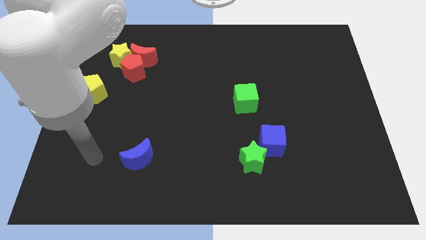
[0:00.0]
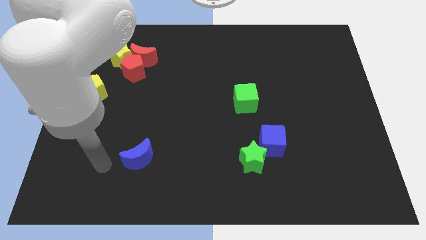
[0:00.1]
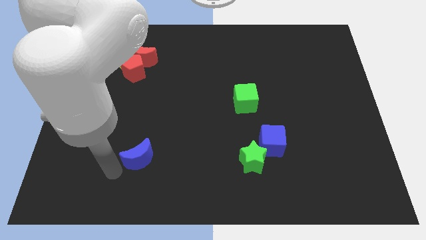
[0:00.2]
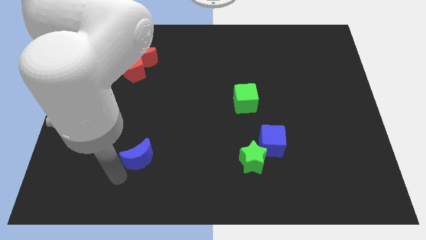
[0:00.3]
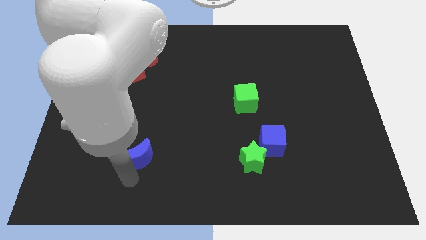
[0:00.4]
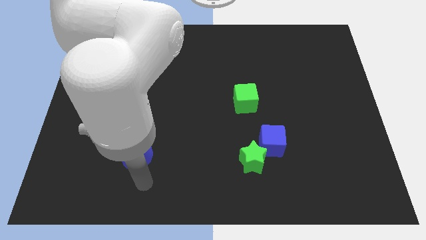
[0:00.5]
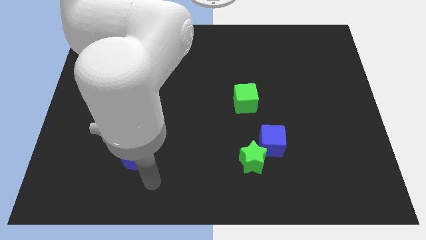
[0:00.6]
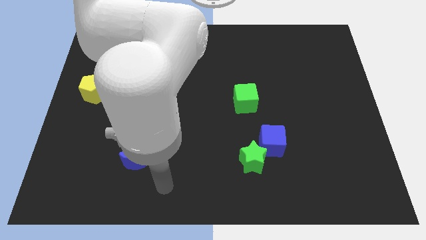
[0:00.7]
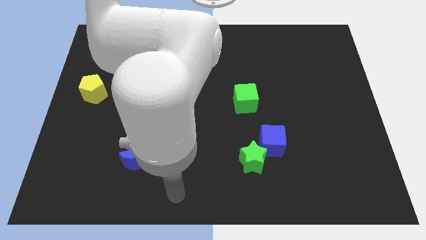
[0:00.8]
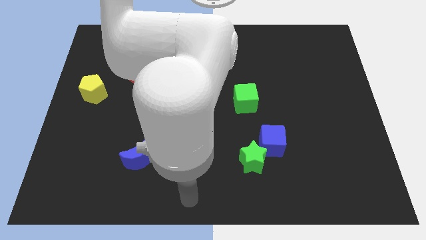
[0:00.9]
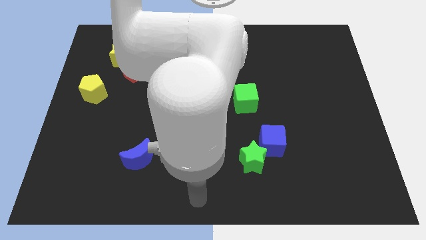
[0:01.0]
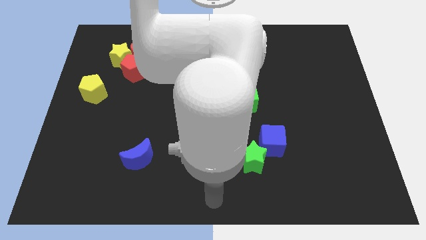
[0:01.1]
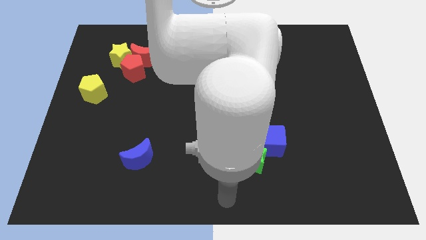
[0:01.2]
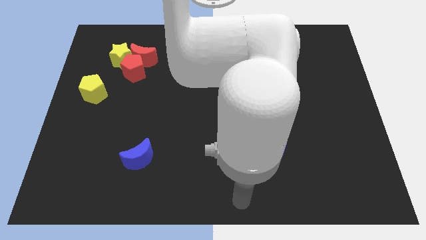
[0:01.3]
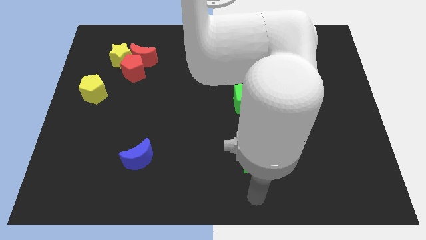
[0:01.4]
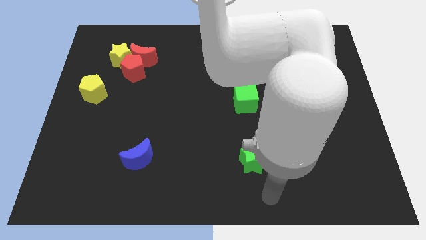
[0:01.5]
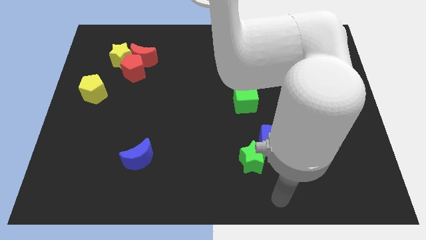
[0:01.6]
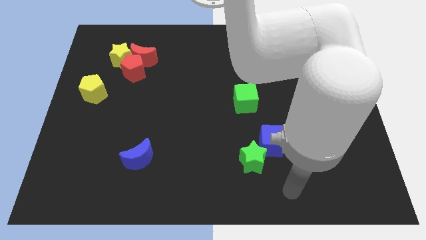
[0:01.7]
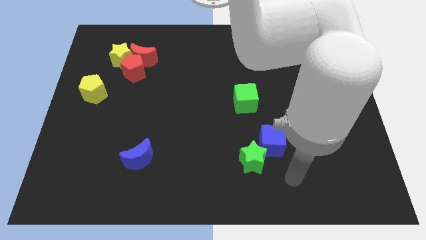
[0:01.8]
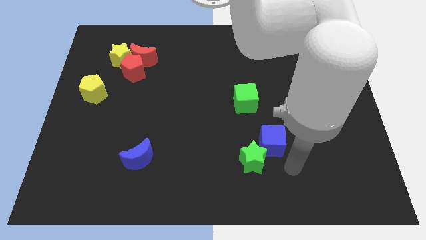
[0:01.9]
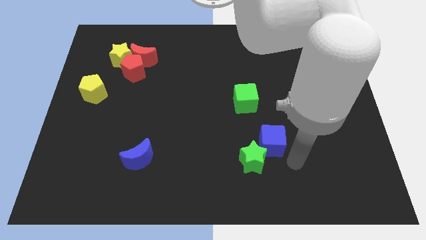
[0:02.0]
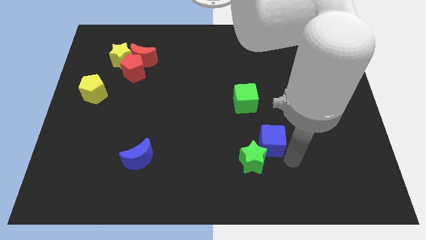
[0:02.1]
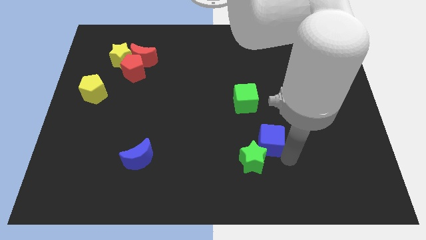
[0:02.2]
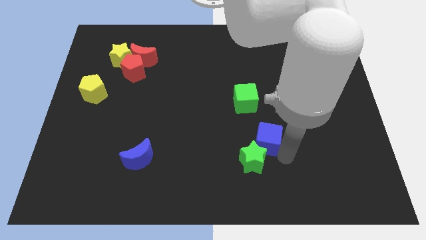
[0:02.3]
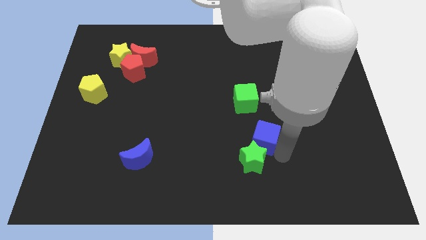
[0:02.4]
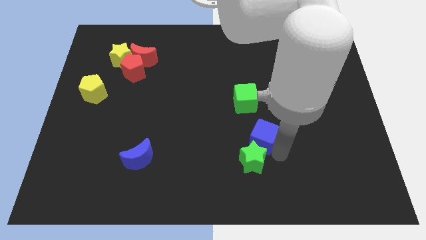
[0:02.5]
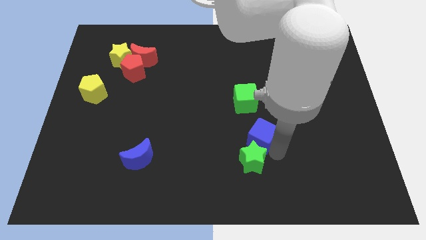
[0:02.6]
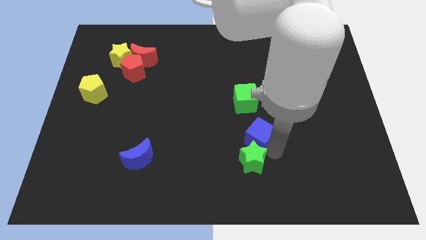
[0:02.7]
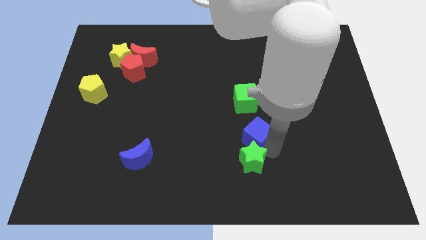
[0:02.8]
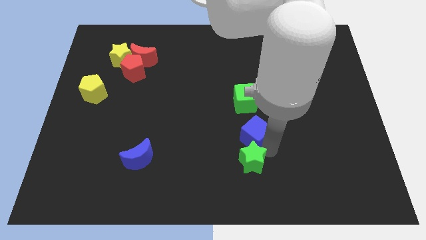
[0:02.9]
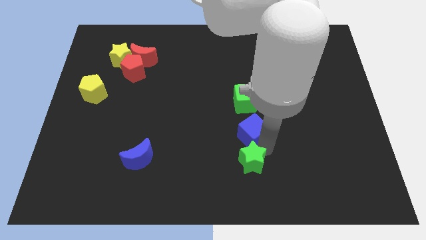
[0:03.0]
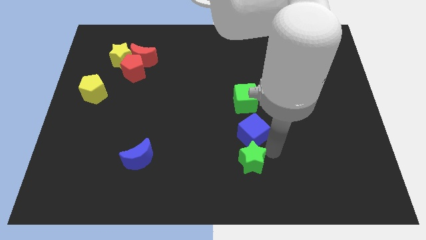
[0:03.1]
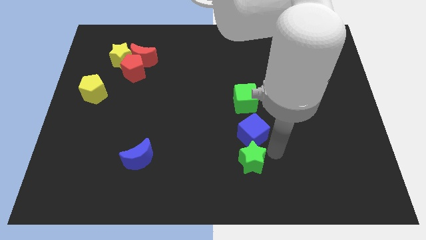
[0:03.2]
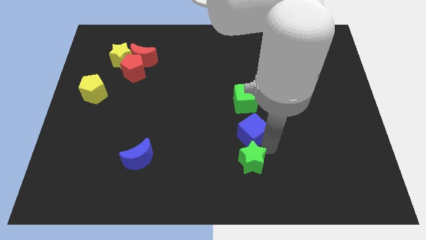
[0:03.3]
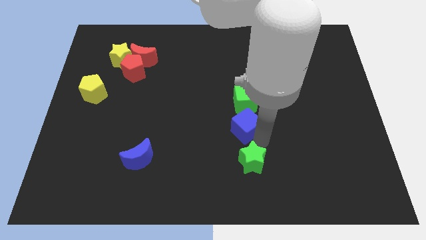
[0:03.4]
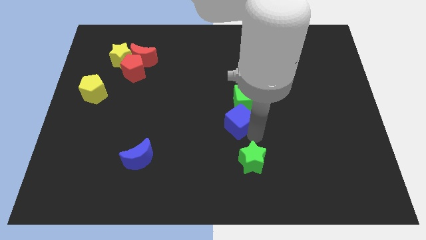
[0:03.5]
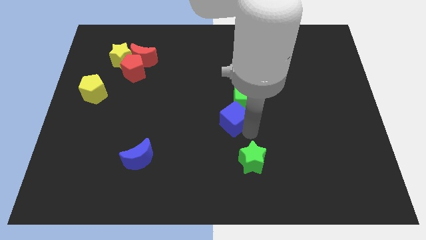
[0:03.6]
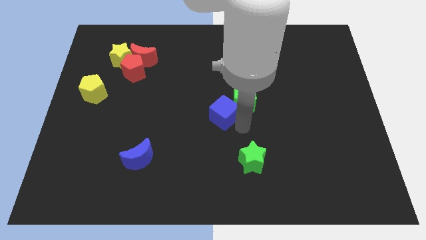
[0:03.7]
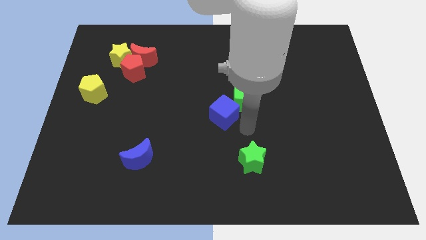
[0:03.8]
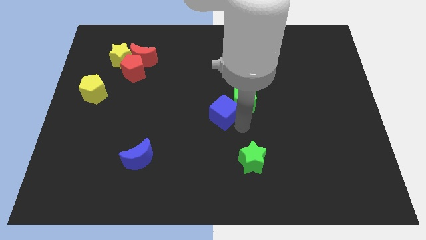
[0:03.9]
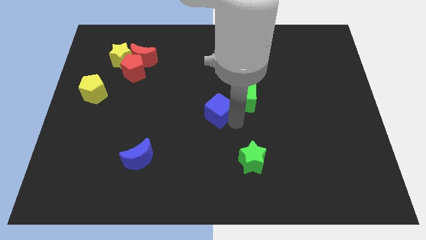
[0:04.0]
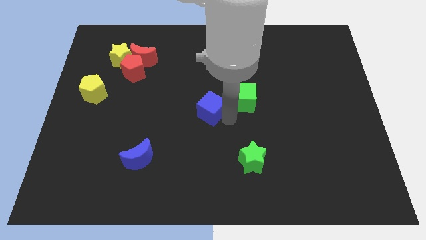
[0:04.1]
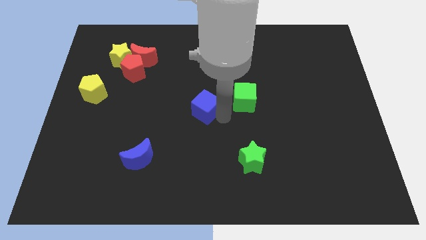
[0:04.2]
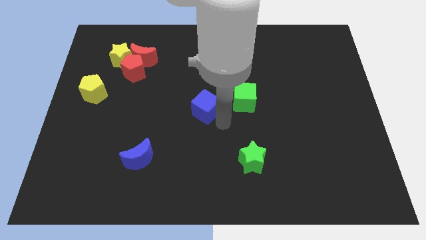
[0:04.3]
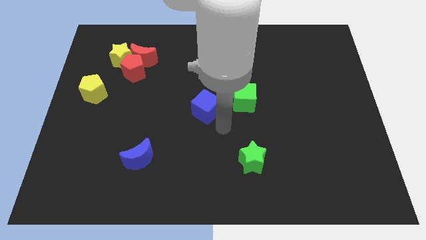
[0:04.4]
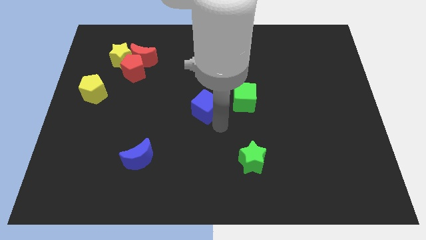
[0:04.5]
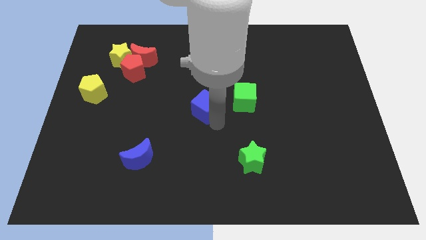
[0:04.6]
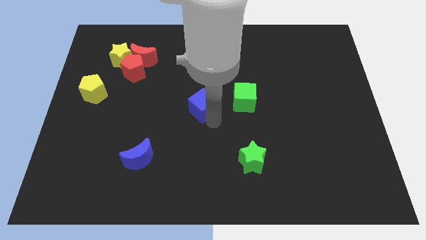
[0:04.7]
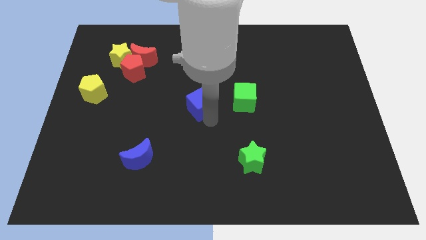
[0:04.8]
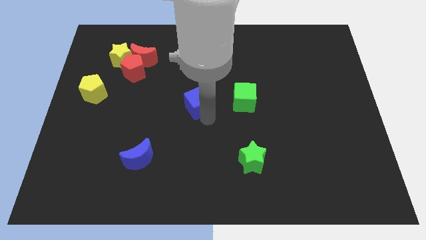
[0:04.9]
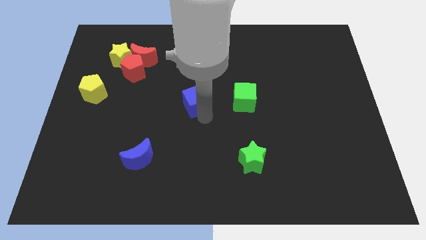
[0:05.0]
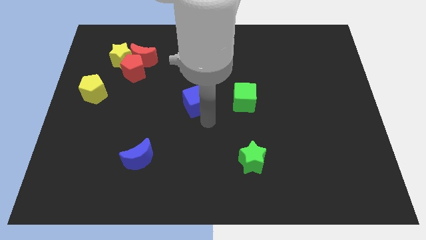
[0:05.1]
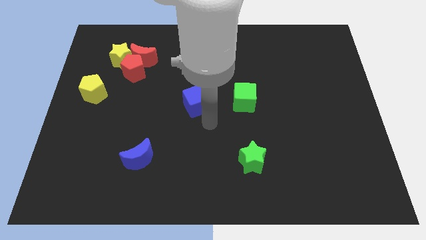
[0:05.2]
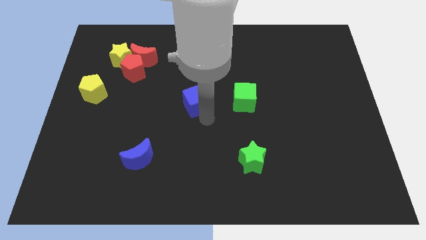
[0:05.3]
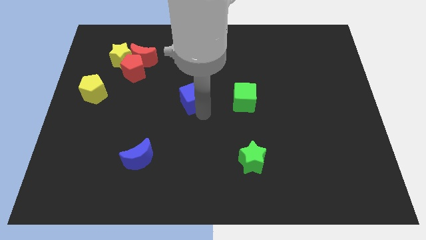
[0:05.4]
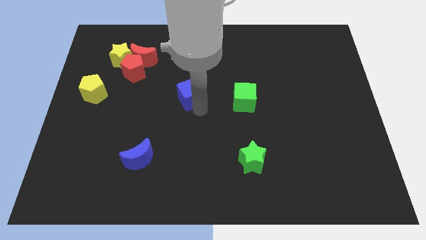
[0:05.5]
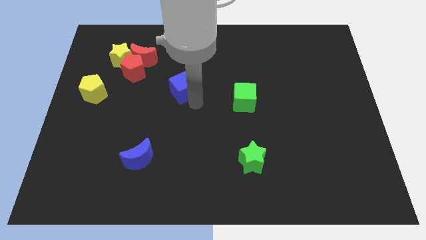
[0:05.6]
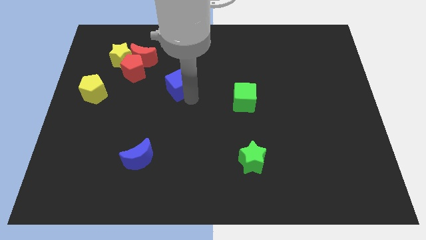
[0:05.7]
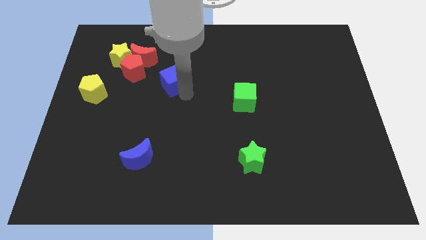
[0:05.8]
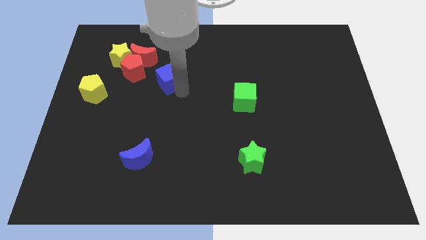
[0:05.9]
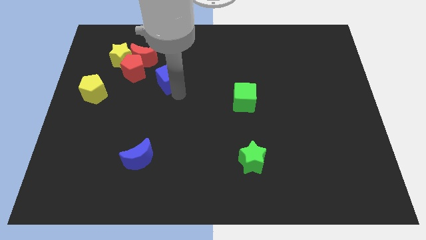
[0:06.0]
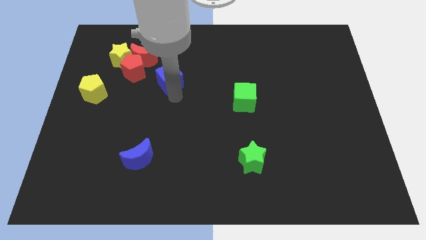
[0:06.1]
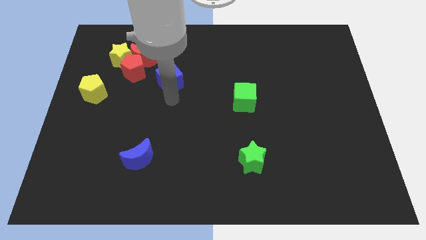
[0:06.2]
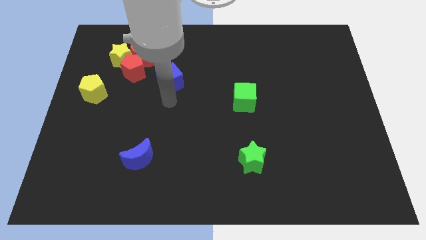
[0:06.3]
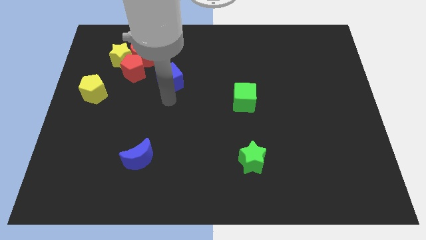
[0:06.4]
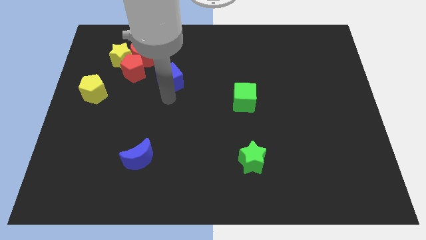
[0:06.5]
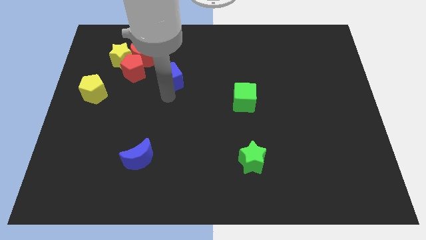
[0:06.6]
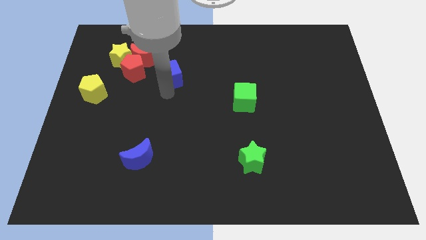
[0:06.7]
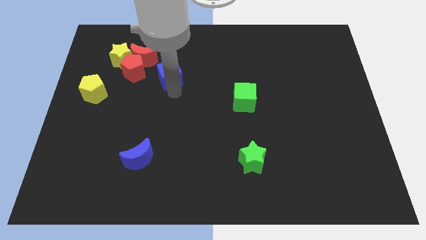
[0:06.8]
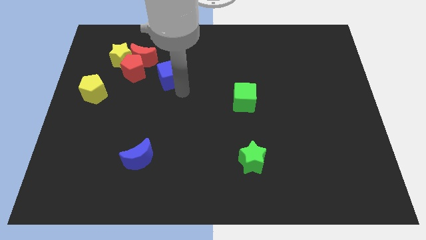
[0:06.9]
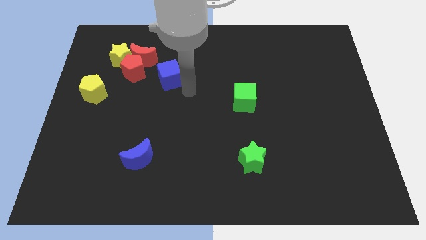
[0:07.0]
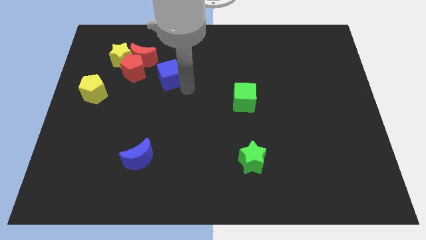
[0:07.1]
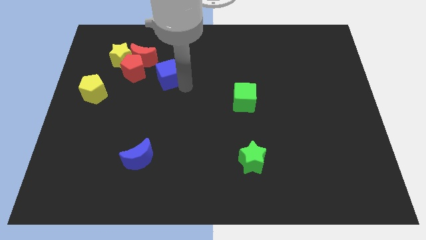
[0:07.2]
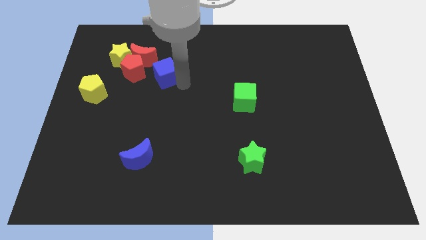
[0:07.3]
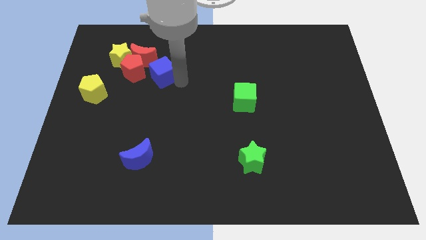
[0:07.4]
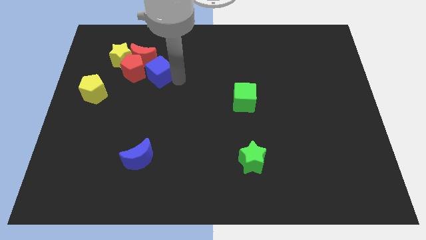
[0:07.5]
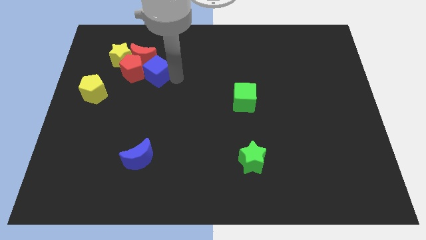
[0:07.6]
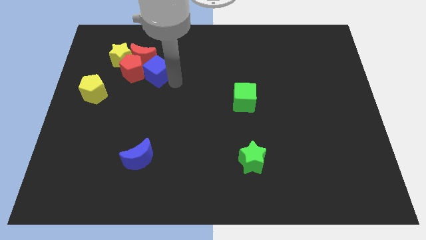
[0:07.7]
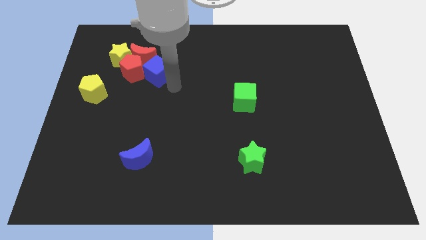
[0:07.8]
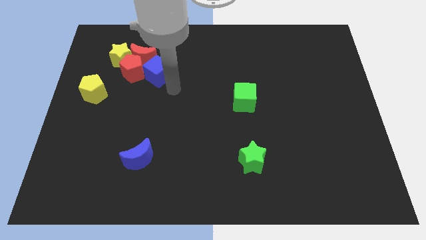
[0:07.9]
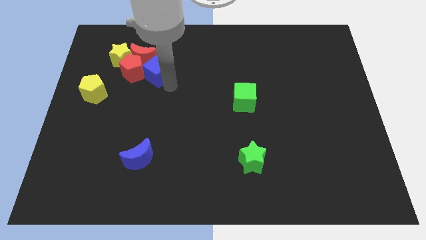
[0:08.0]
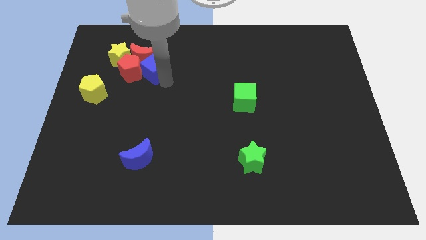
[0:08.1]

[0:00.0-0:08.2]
push the blue cube close to the red moon
